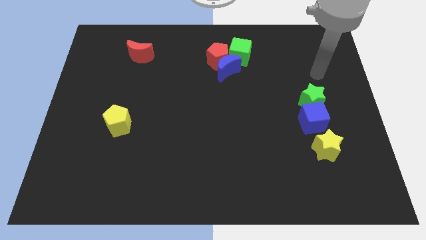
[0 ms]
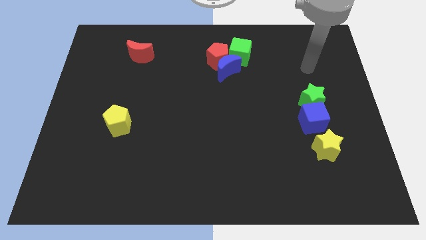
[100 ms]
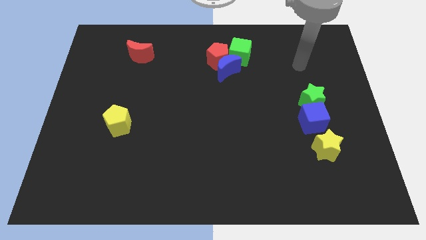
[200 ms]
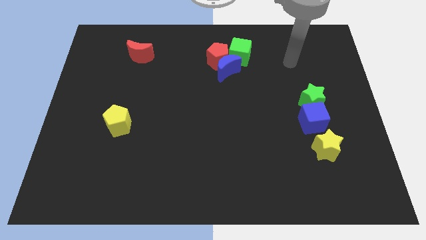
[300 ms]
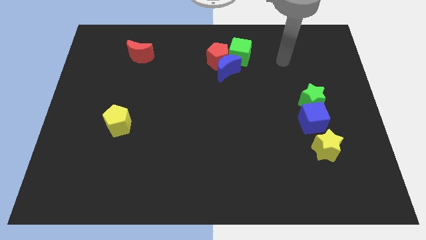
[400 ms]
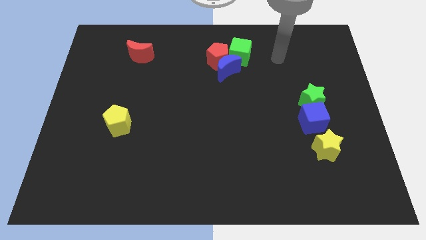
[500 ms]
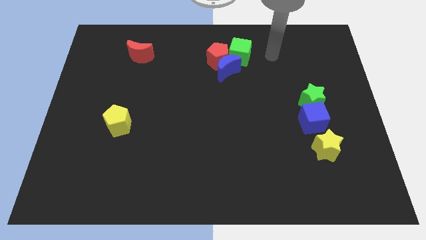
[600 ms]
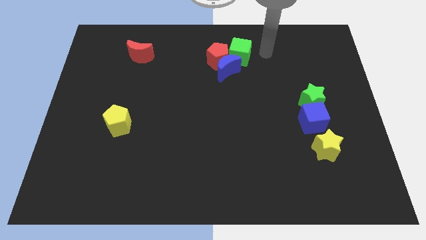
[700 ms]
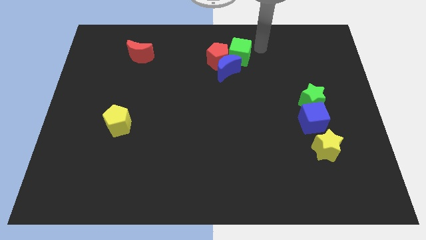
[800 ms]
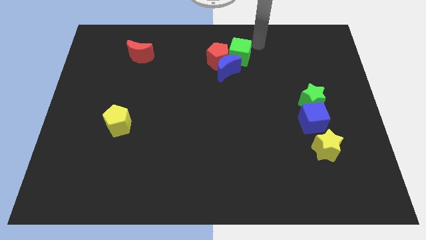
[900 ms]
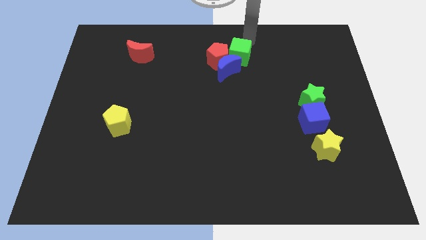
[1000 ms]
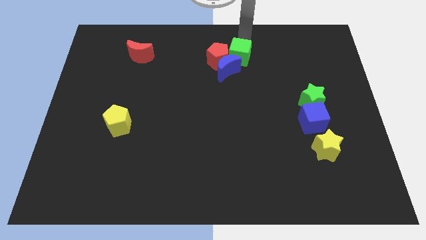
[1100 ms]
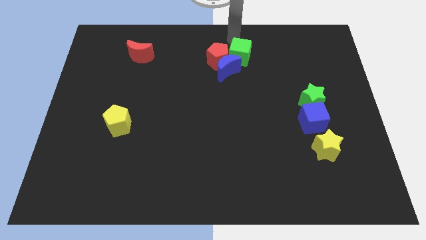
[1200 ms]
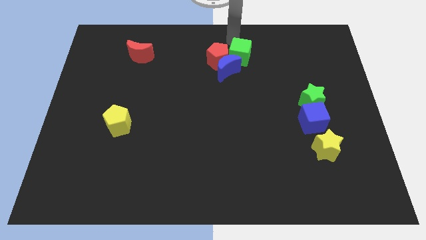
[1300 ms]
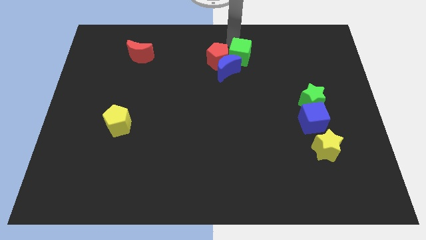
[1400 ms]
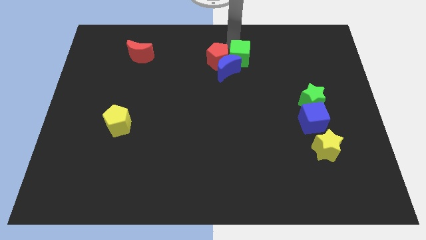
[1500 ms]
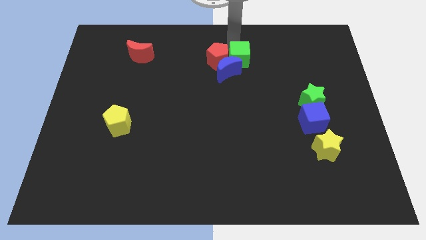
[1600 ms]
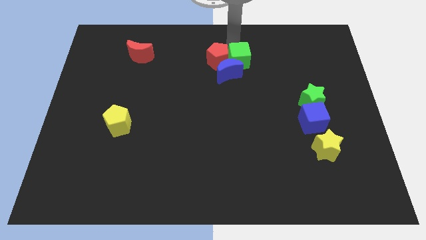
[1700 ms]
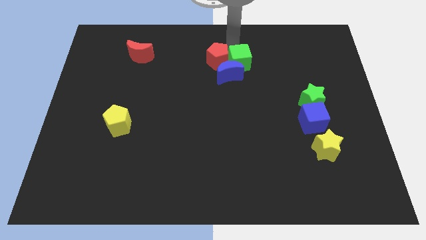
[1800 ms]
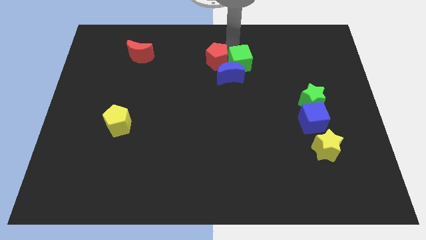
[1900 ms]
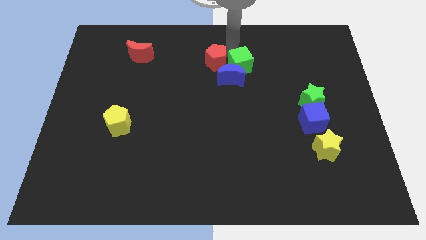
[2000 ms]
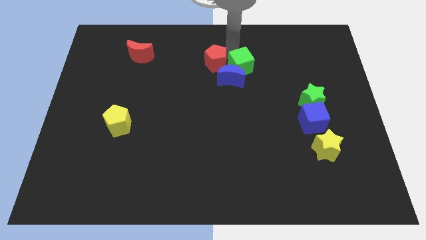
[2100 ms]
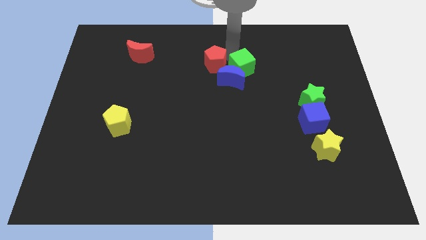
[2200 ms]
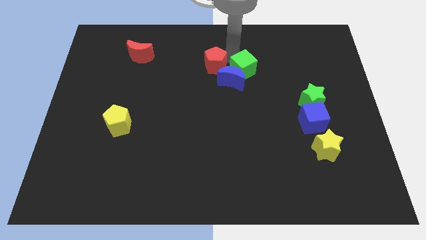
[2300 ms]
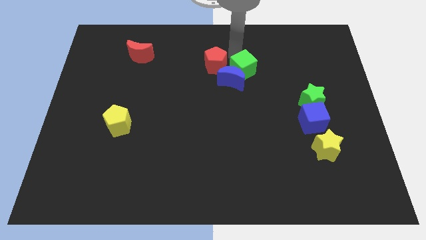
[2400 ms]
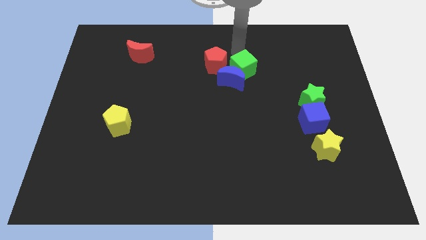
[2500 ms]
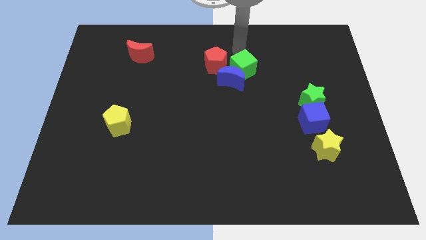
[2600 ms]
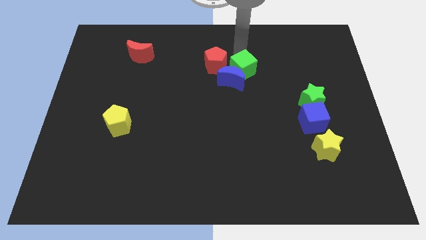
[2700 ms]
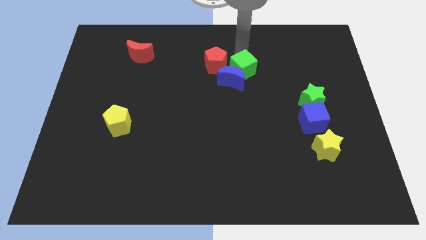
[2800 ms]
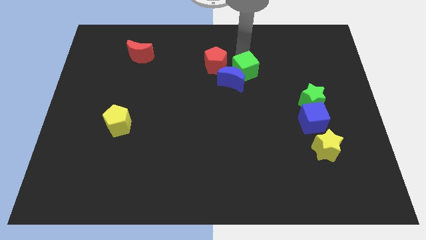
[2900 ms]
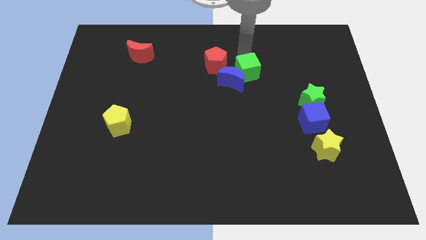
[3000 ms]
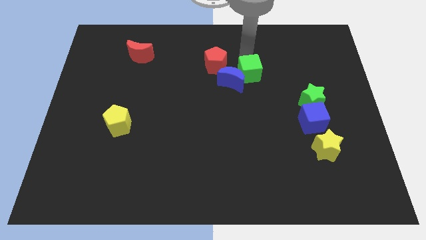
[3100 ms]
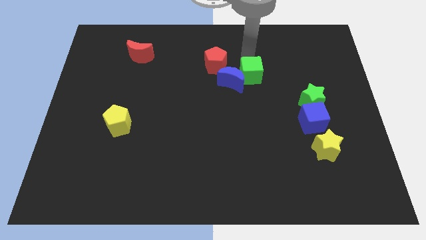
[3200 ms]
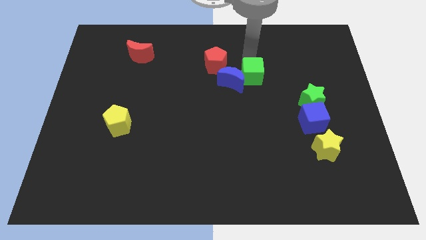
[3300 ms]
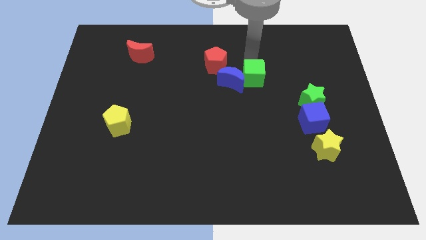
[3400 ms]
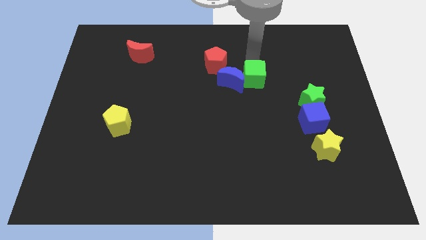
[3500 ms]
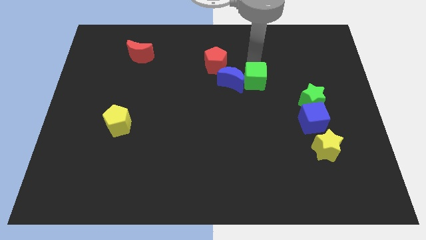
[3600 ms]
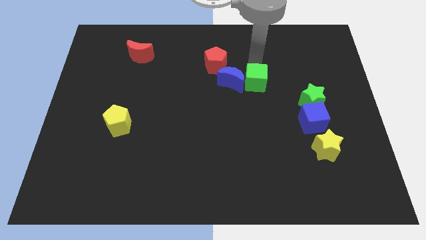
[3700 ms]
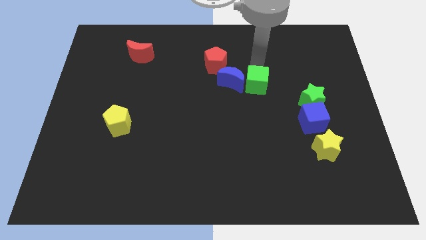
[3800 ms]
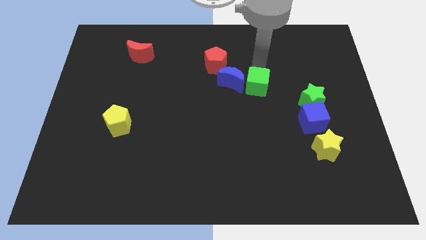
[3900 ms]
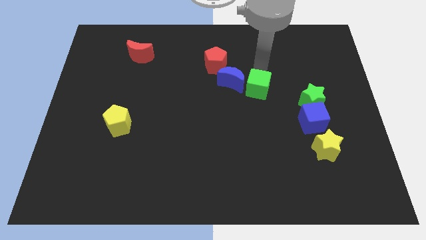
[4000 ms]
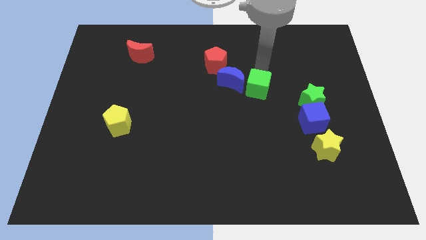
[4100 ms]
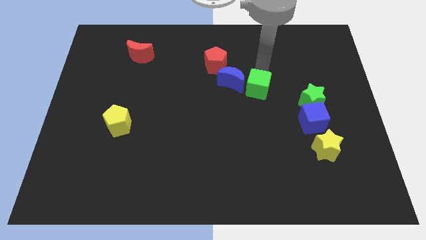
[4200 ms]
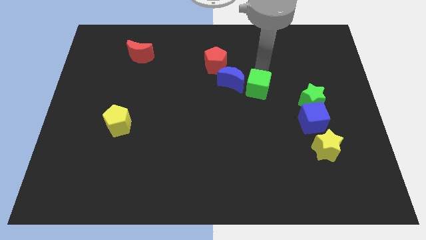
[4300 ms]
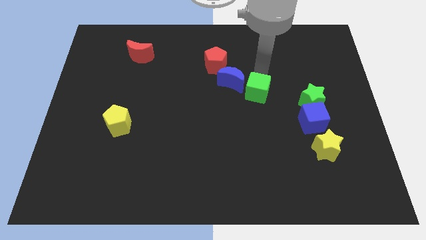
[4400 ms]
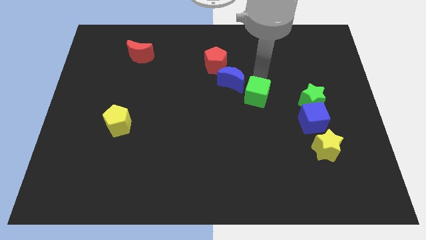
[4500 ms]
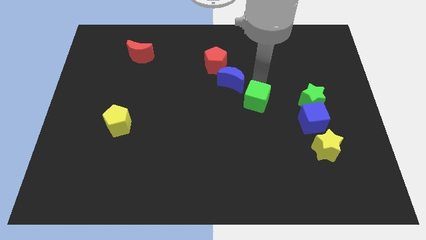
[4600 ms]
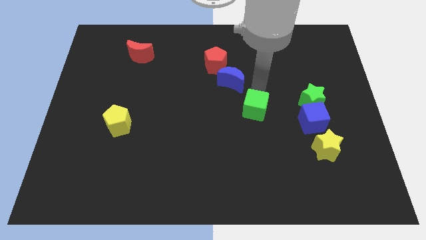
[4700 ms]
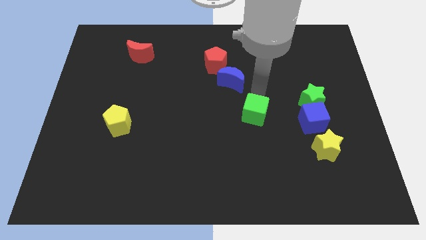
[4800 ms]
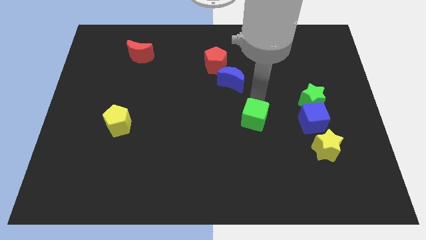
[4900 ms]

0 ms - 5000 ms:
move the green cube downwards

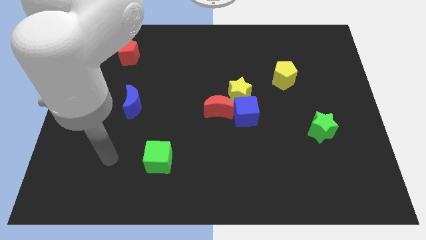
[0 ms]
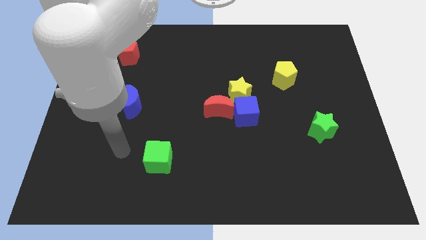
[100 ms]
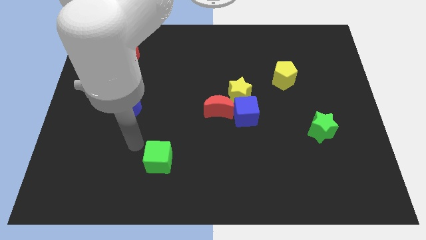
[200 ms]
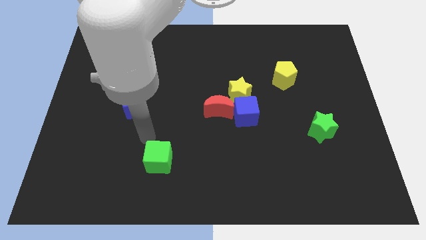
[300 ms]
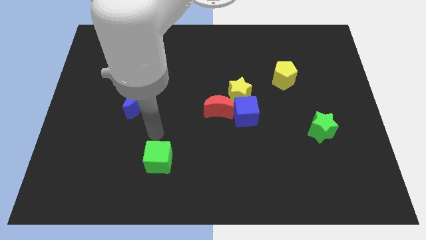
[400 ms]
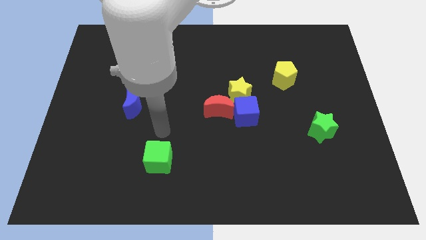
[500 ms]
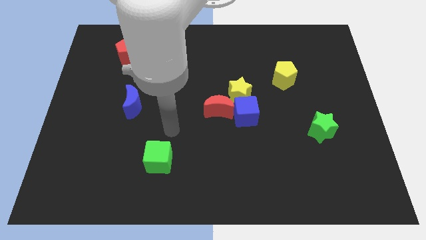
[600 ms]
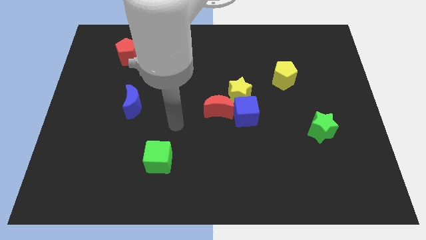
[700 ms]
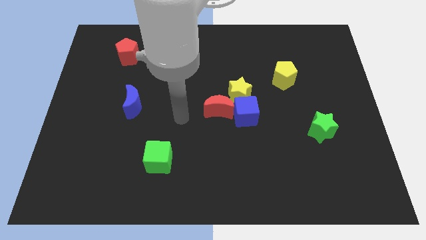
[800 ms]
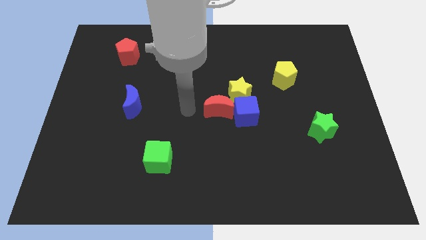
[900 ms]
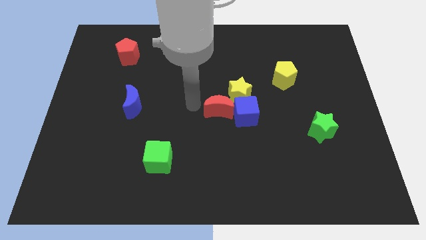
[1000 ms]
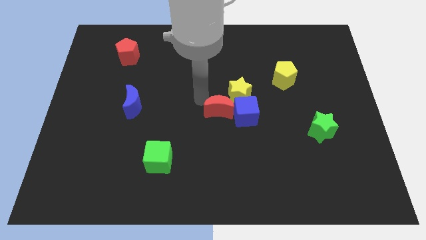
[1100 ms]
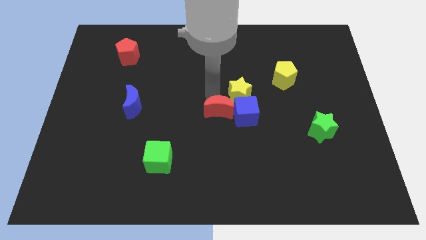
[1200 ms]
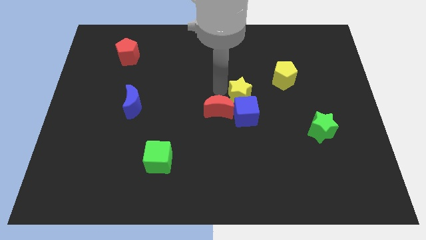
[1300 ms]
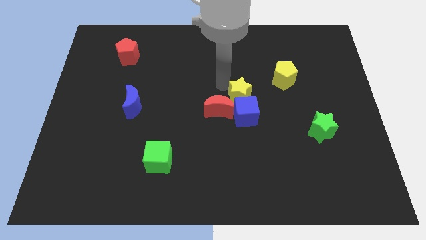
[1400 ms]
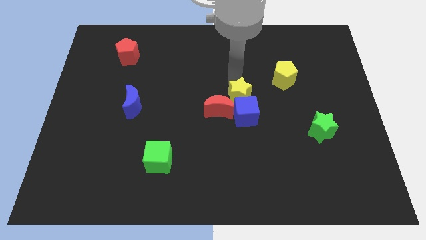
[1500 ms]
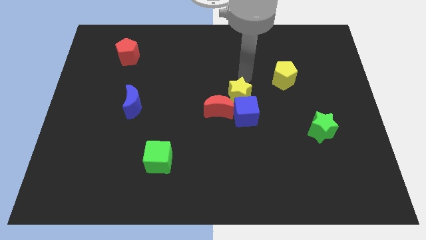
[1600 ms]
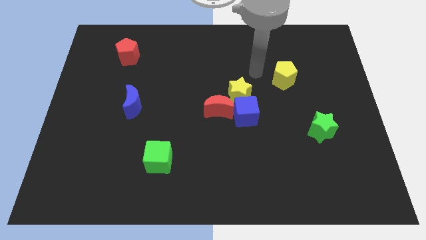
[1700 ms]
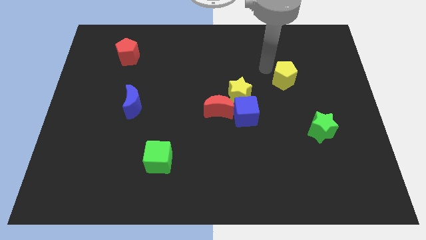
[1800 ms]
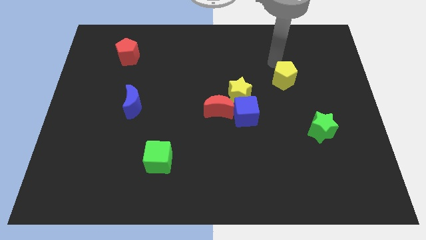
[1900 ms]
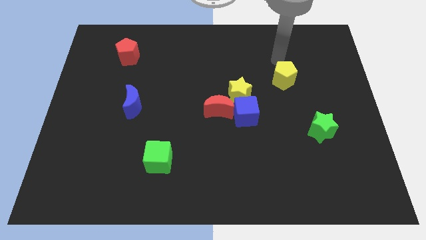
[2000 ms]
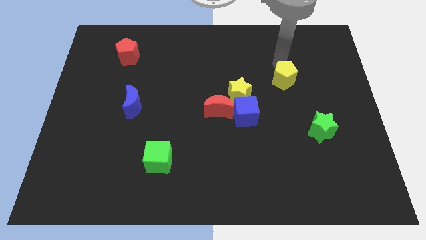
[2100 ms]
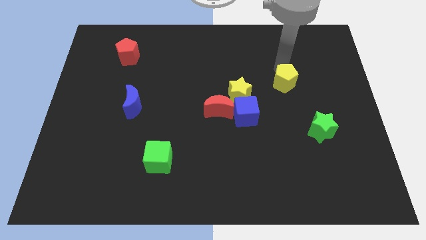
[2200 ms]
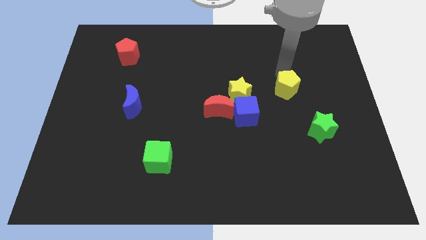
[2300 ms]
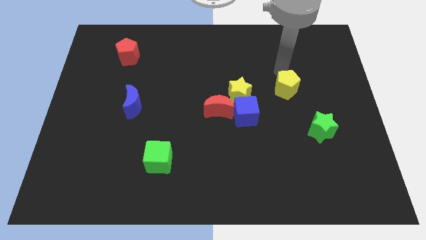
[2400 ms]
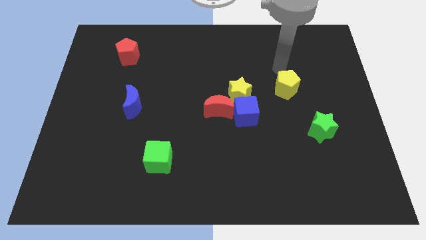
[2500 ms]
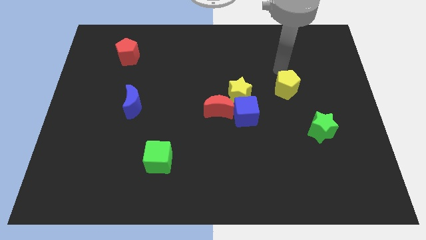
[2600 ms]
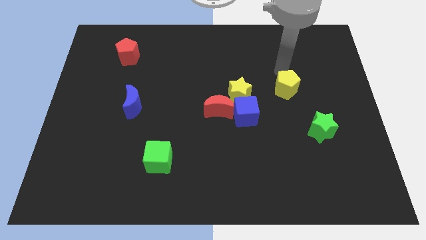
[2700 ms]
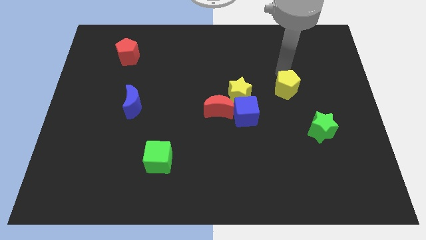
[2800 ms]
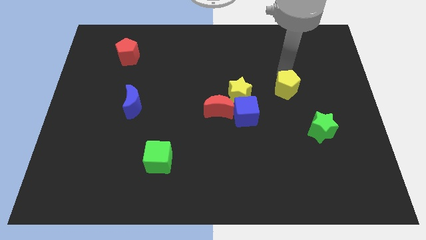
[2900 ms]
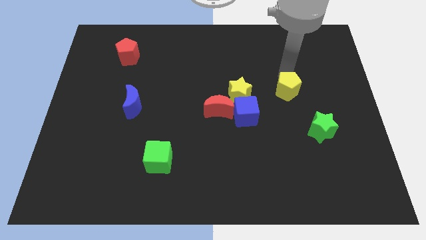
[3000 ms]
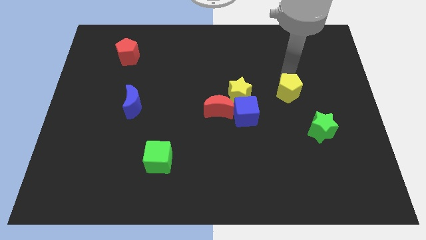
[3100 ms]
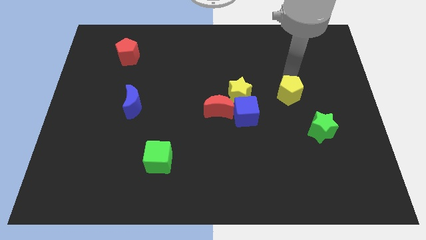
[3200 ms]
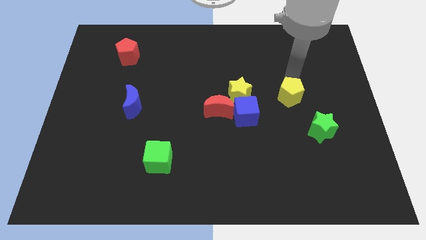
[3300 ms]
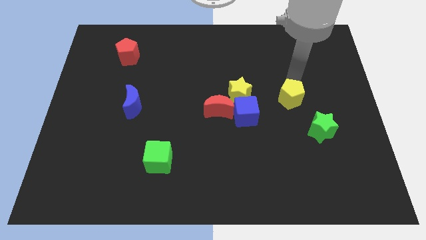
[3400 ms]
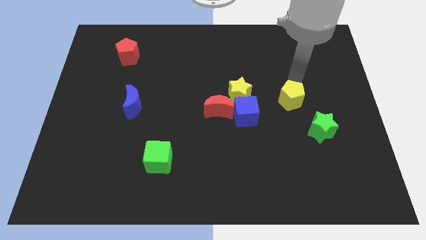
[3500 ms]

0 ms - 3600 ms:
slightly push the yellow pentagon down
